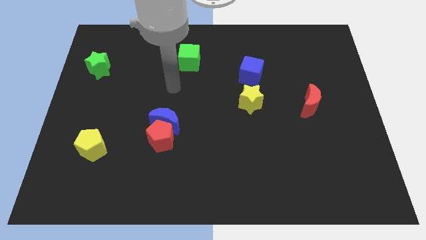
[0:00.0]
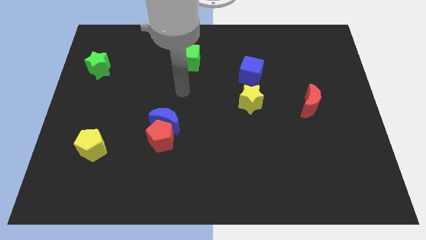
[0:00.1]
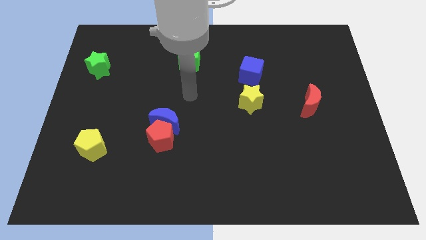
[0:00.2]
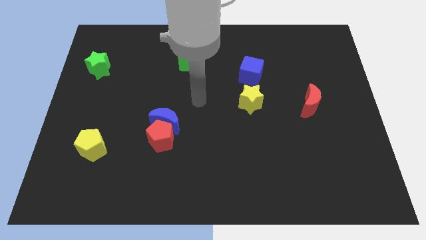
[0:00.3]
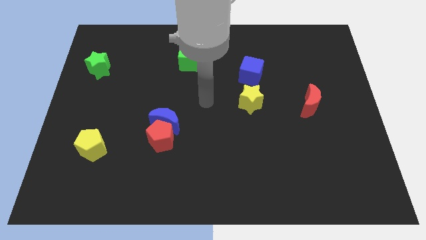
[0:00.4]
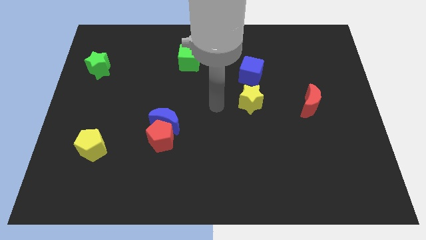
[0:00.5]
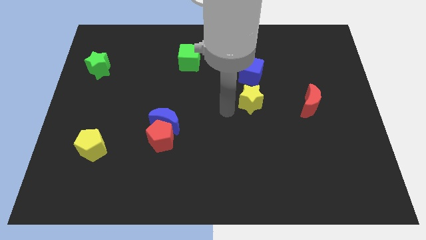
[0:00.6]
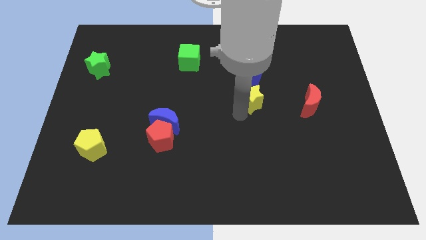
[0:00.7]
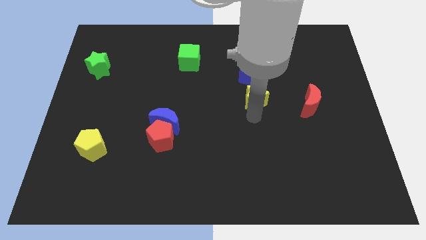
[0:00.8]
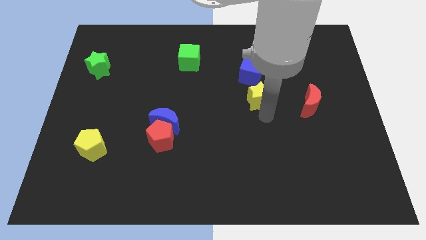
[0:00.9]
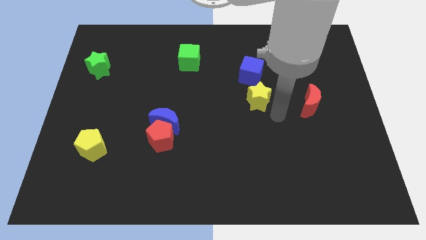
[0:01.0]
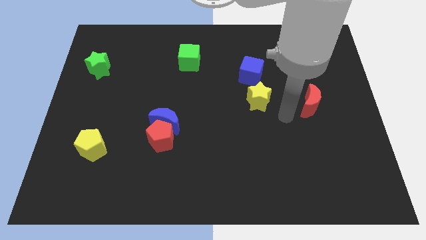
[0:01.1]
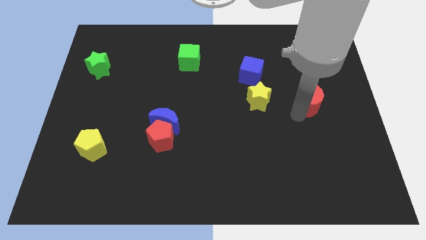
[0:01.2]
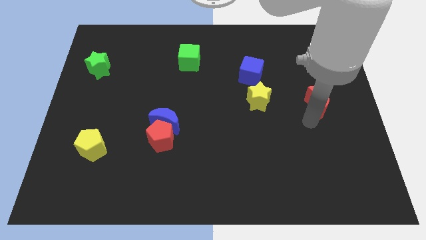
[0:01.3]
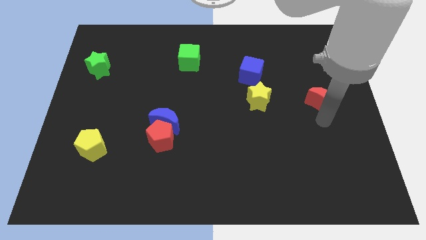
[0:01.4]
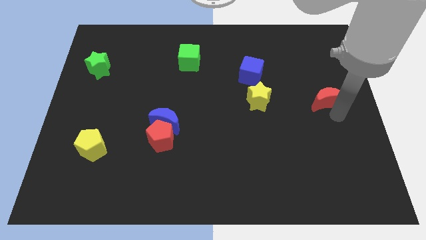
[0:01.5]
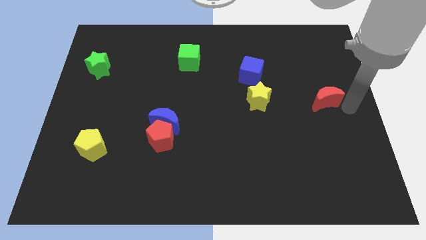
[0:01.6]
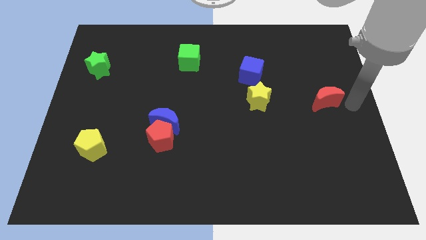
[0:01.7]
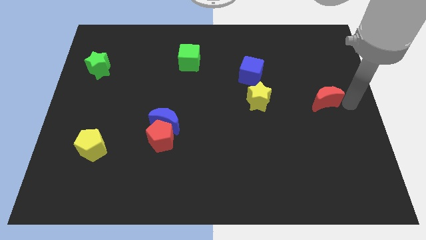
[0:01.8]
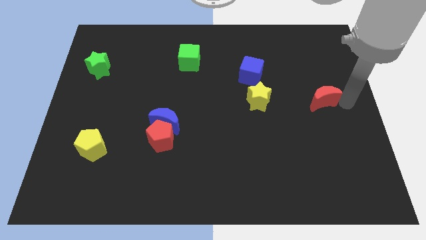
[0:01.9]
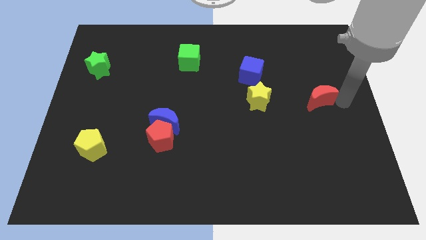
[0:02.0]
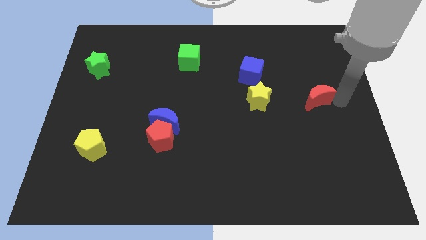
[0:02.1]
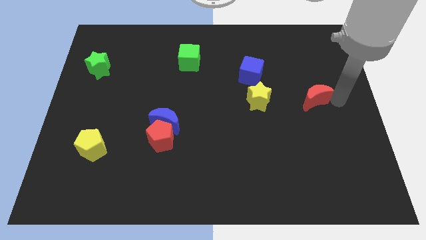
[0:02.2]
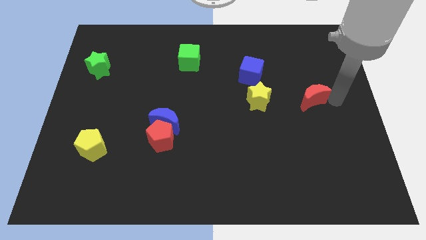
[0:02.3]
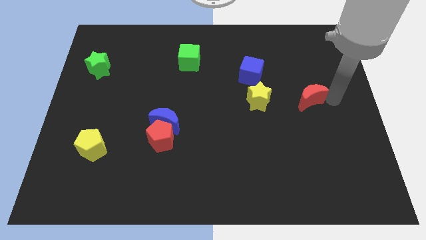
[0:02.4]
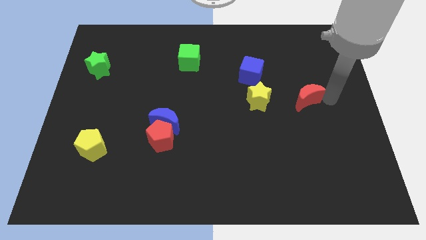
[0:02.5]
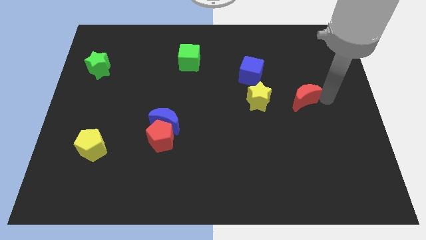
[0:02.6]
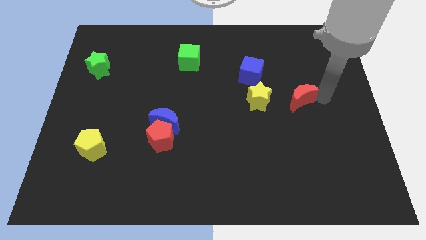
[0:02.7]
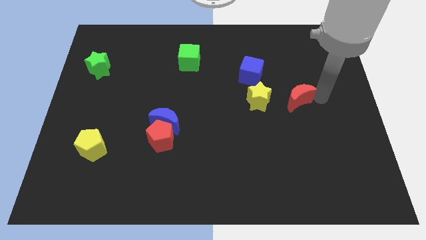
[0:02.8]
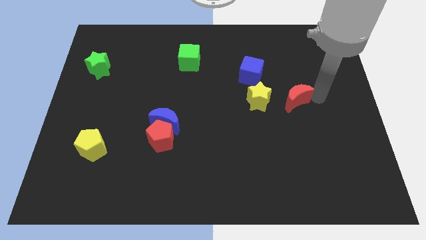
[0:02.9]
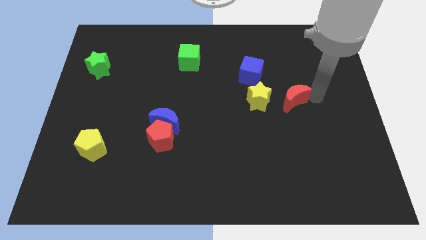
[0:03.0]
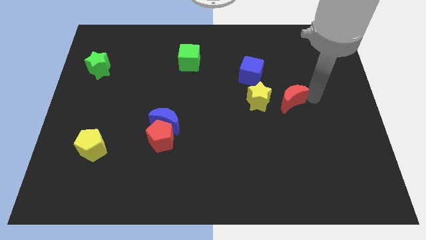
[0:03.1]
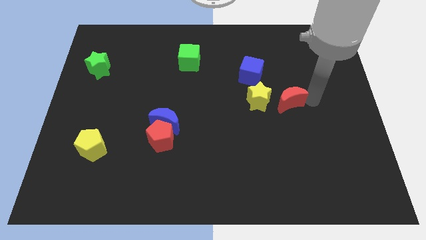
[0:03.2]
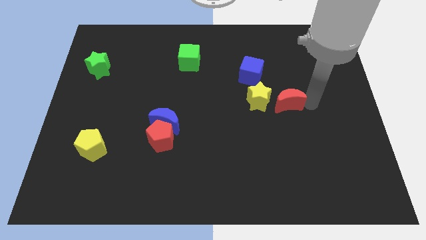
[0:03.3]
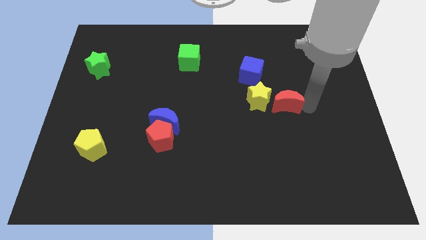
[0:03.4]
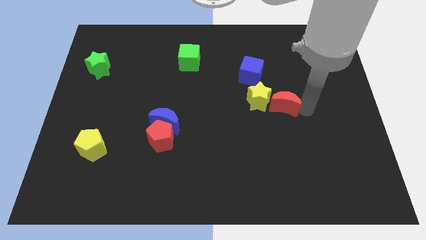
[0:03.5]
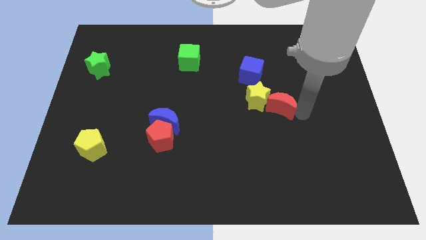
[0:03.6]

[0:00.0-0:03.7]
push the red moon a little bit left

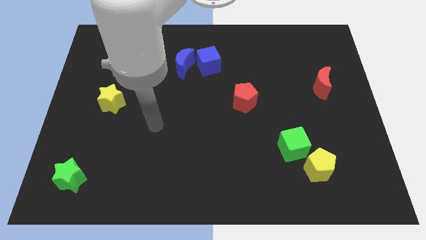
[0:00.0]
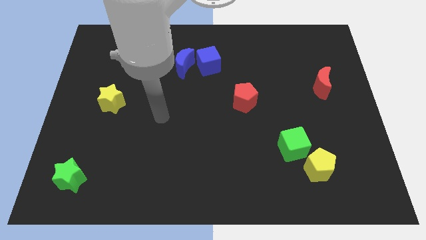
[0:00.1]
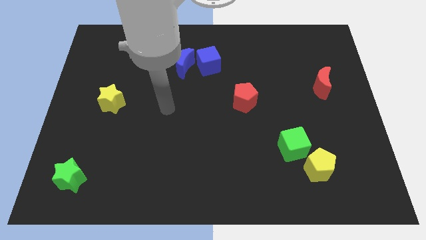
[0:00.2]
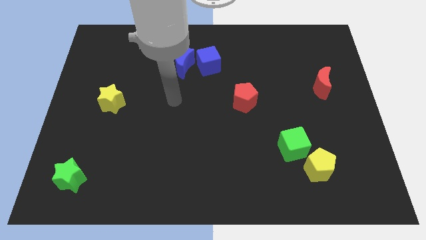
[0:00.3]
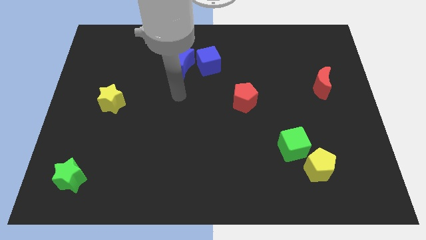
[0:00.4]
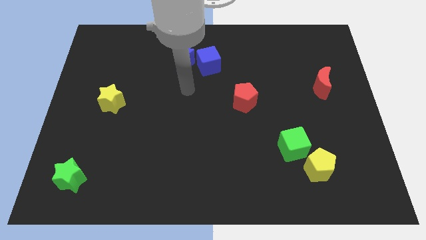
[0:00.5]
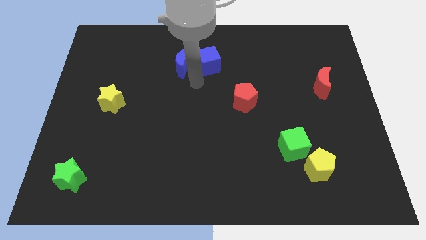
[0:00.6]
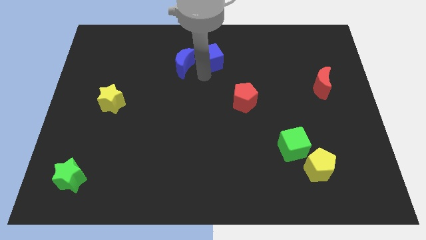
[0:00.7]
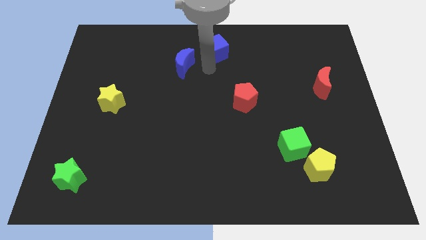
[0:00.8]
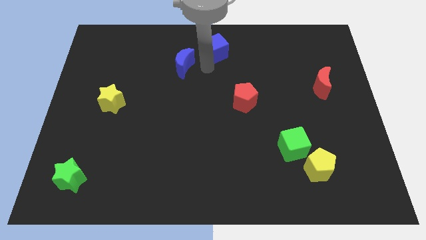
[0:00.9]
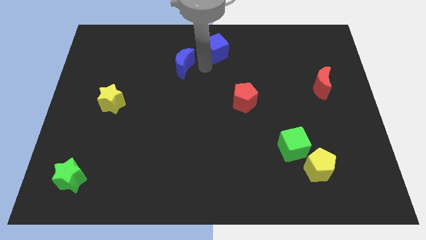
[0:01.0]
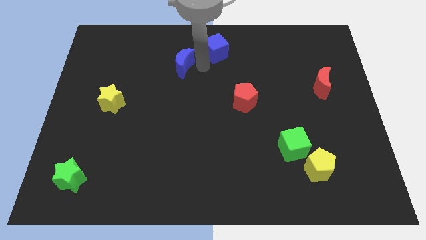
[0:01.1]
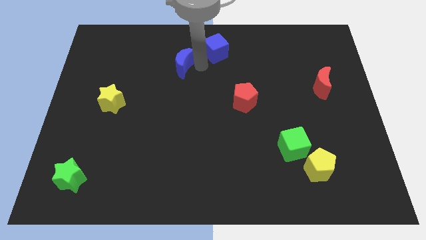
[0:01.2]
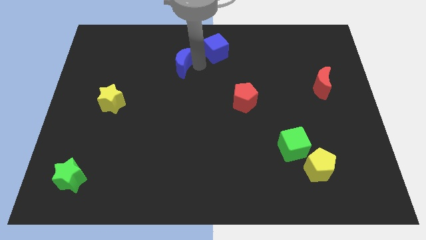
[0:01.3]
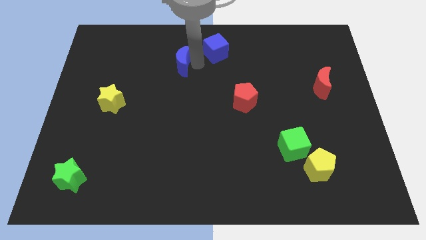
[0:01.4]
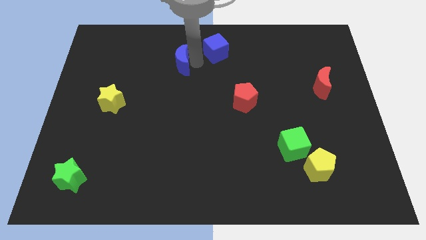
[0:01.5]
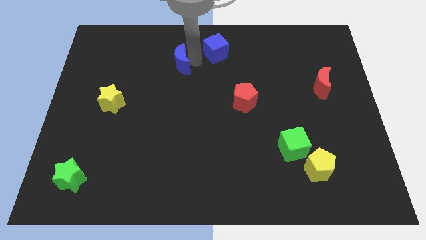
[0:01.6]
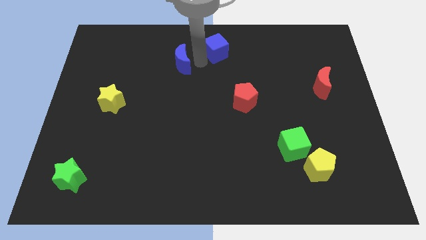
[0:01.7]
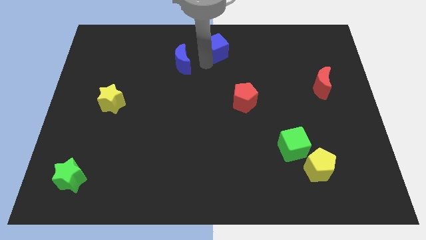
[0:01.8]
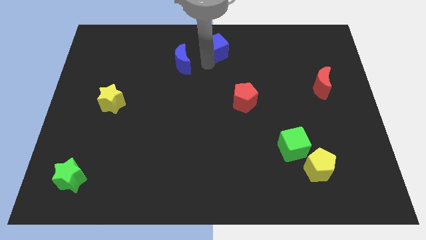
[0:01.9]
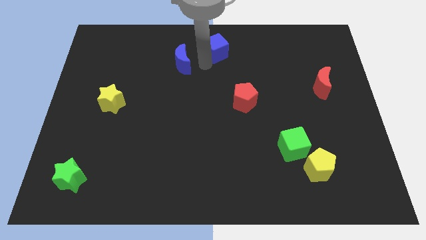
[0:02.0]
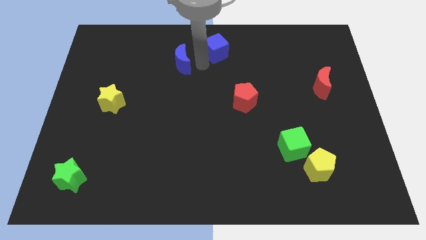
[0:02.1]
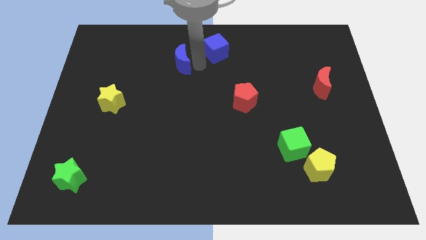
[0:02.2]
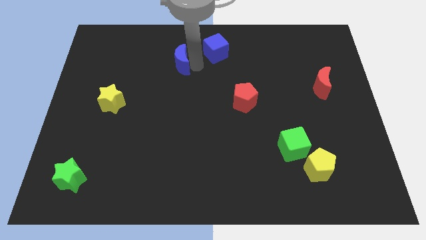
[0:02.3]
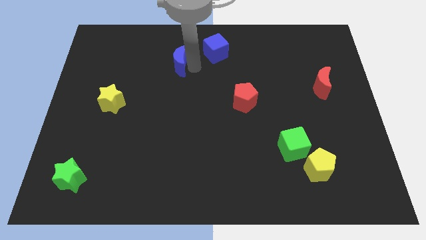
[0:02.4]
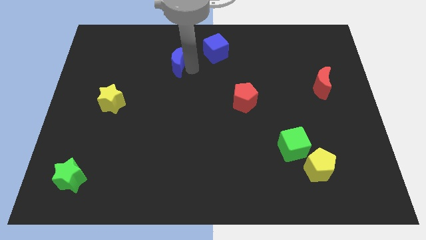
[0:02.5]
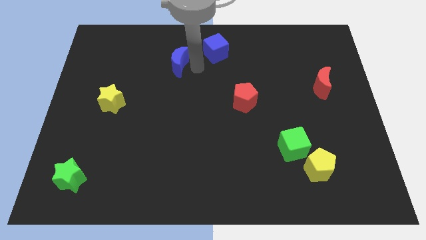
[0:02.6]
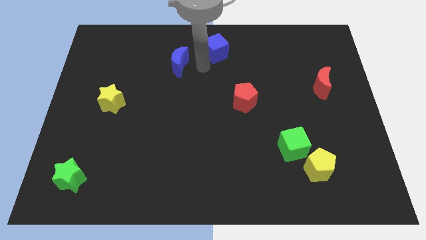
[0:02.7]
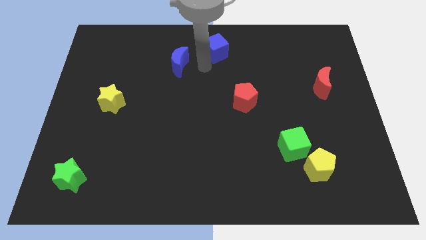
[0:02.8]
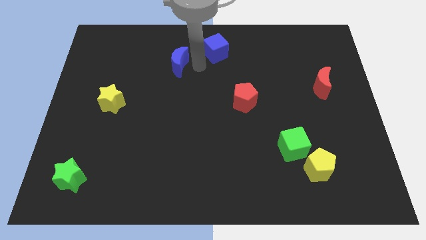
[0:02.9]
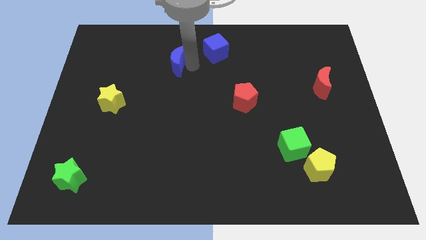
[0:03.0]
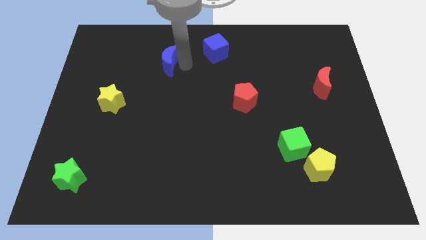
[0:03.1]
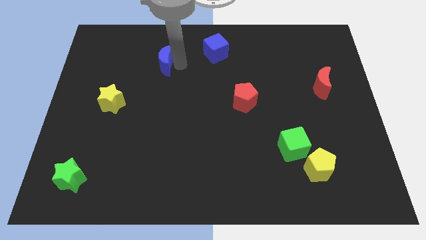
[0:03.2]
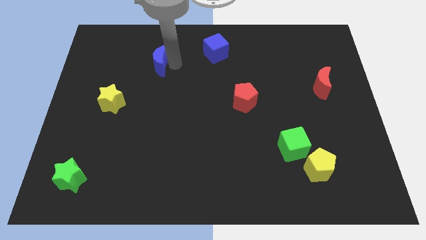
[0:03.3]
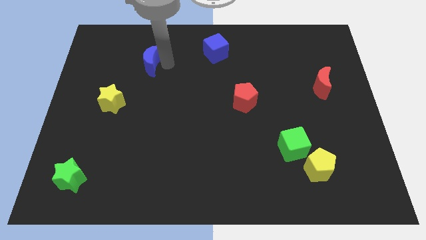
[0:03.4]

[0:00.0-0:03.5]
slide the blue moon left a little

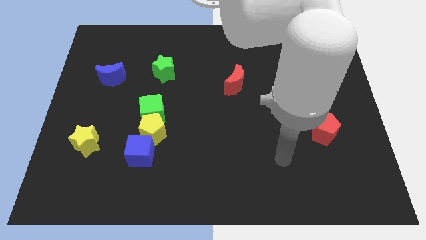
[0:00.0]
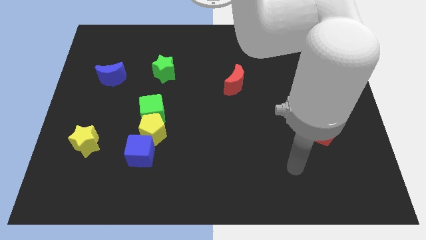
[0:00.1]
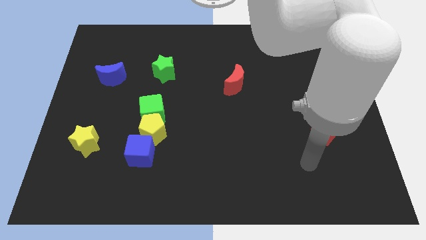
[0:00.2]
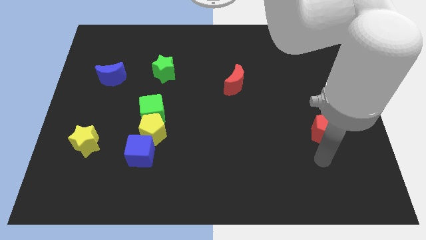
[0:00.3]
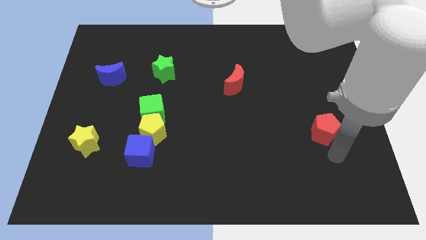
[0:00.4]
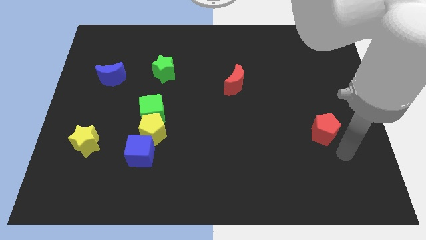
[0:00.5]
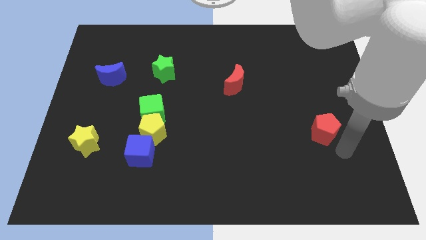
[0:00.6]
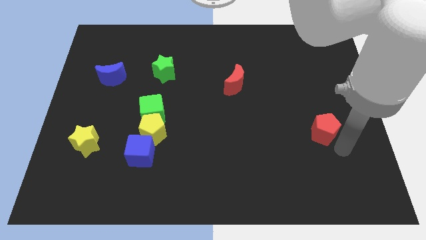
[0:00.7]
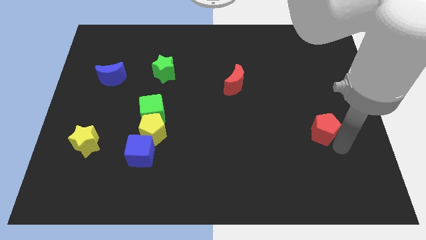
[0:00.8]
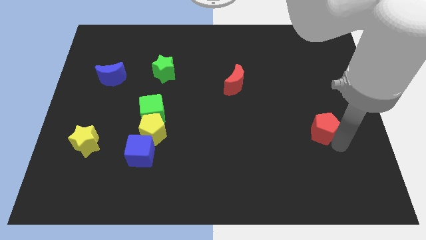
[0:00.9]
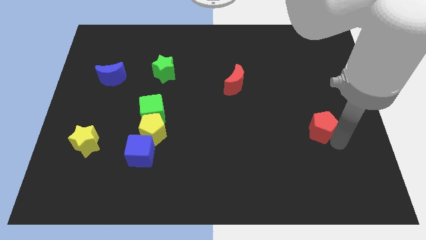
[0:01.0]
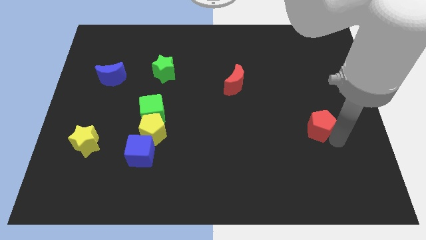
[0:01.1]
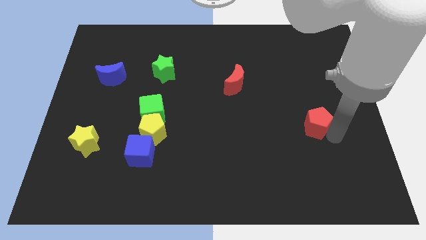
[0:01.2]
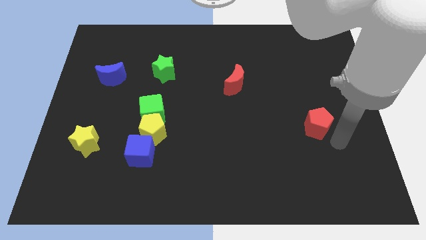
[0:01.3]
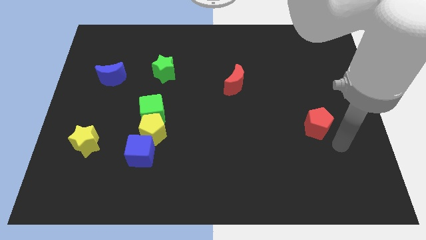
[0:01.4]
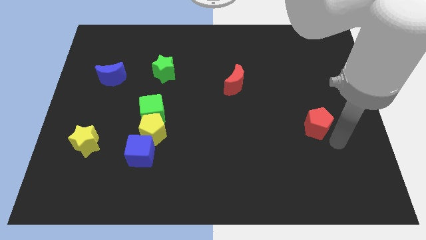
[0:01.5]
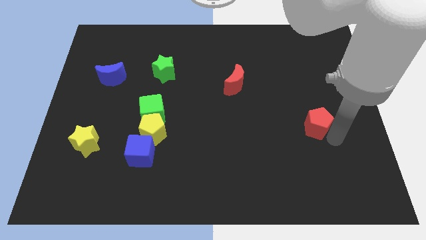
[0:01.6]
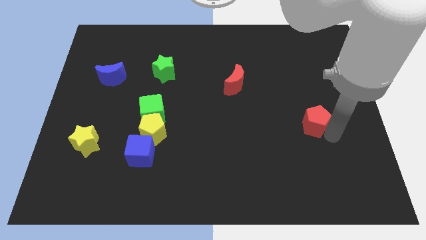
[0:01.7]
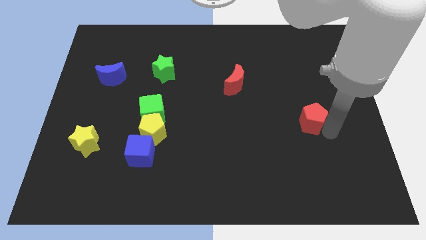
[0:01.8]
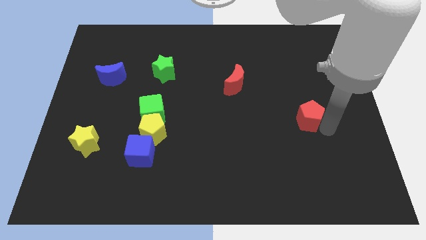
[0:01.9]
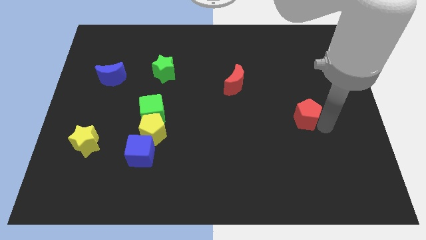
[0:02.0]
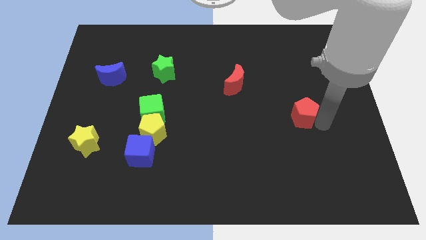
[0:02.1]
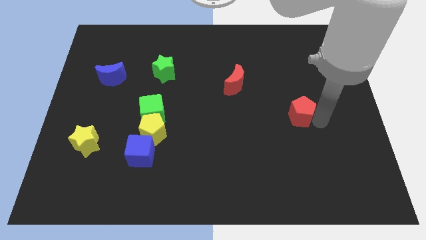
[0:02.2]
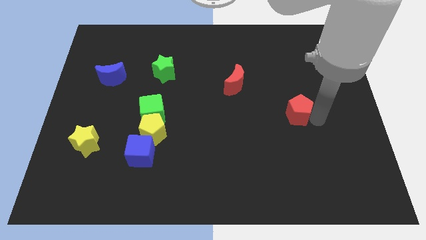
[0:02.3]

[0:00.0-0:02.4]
move the red pentagon up and to the left slightly
